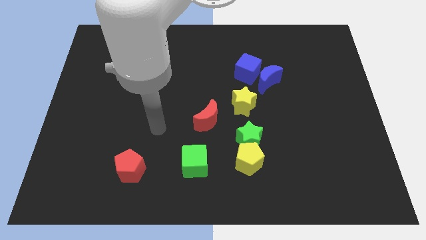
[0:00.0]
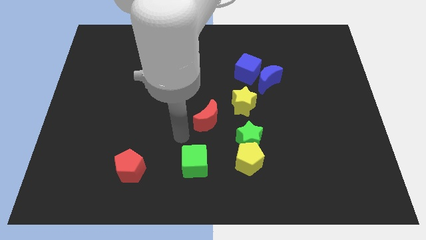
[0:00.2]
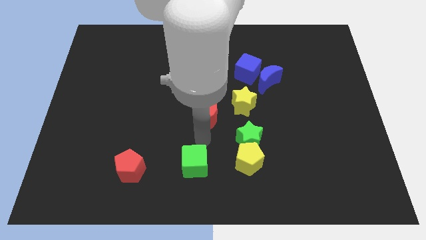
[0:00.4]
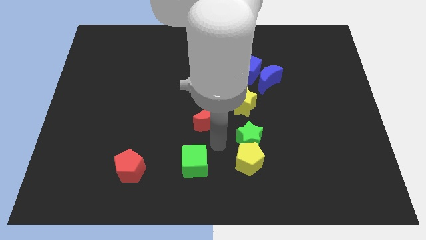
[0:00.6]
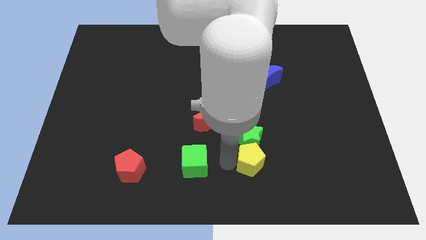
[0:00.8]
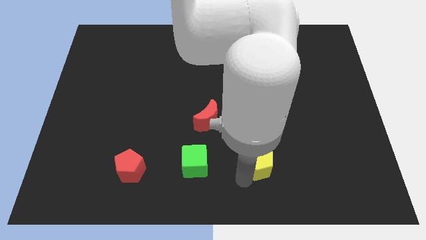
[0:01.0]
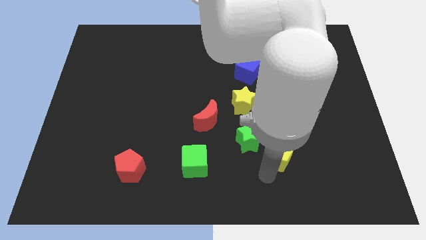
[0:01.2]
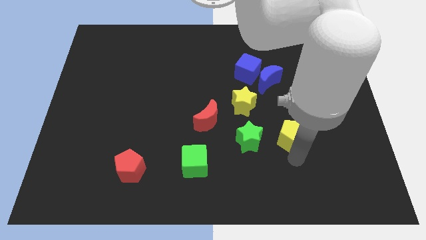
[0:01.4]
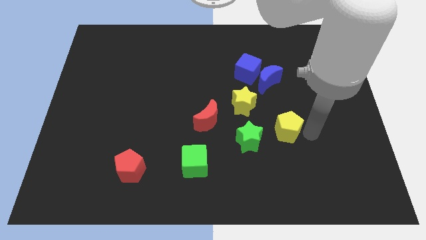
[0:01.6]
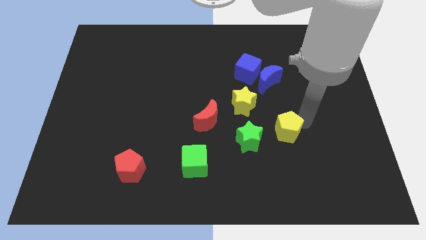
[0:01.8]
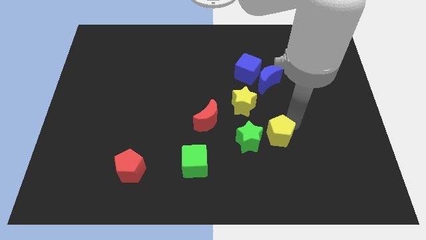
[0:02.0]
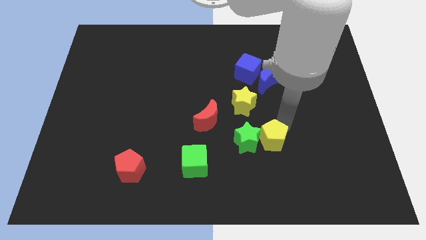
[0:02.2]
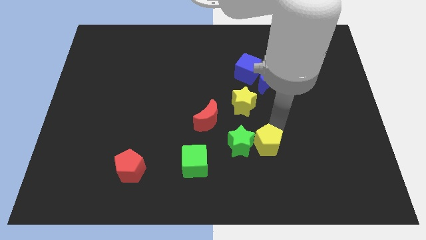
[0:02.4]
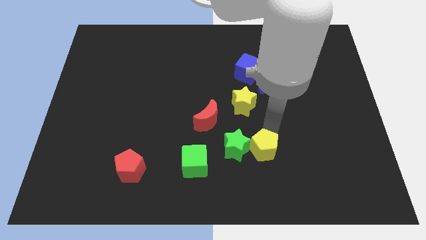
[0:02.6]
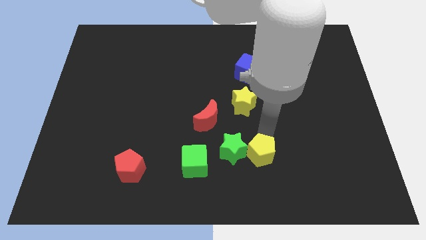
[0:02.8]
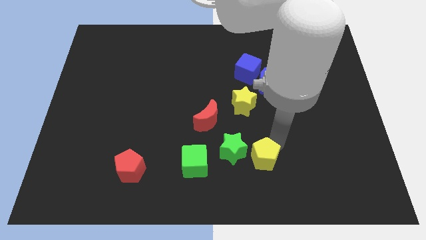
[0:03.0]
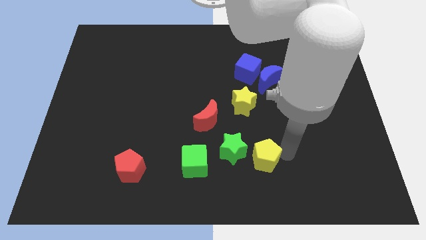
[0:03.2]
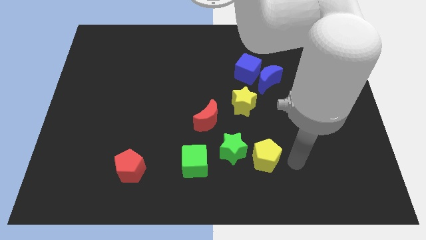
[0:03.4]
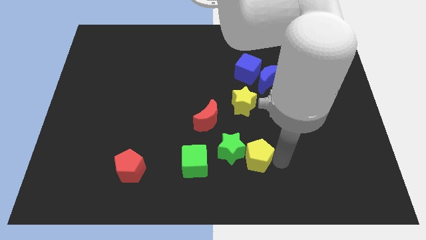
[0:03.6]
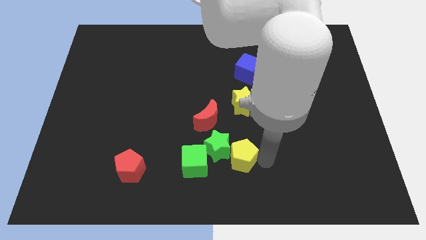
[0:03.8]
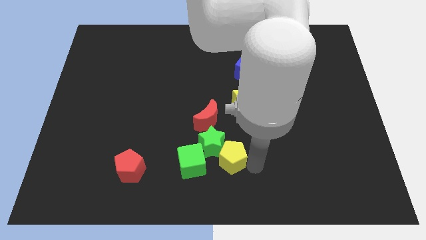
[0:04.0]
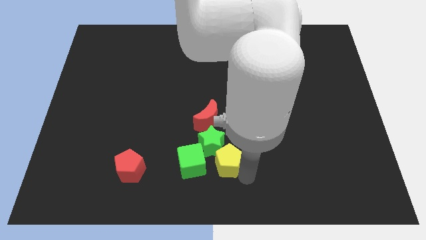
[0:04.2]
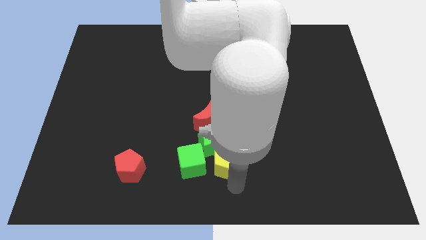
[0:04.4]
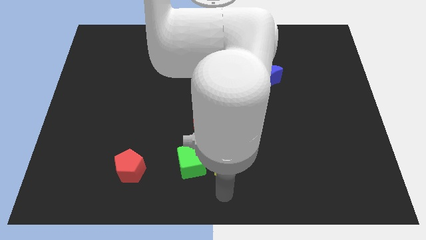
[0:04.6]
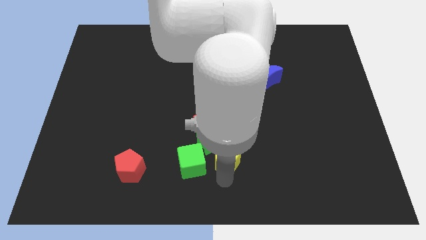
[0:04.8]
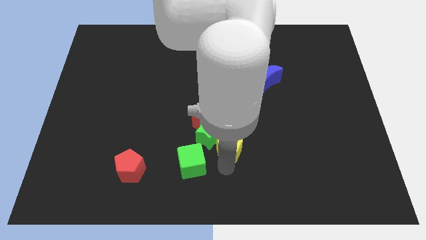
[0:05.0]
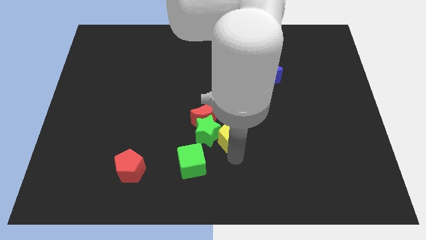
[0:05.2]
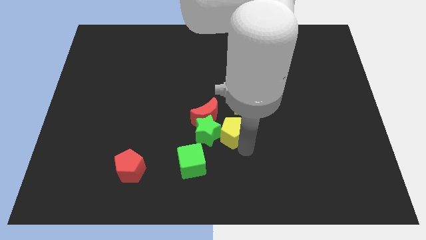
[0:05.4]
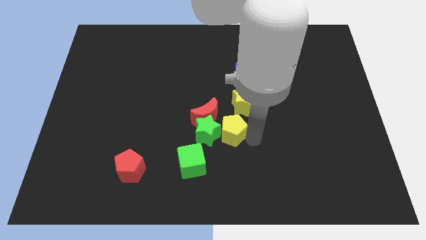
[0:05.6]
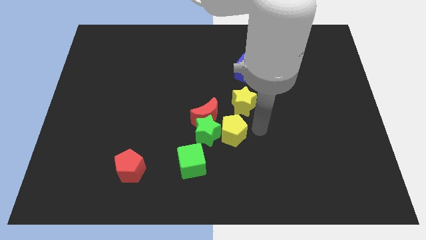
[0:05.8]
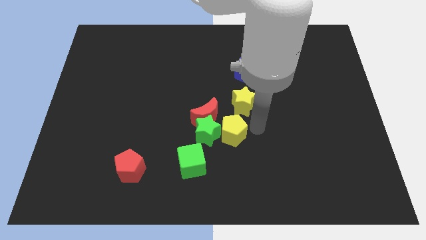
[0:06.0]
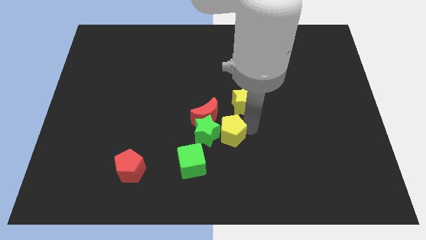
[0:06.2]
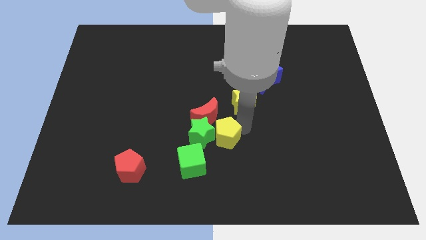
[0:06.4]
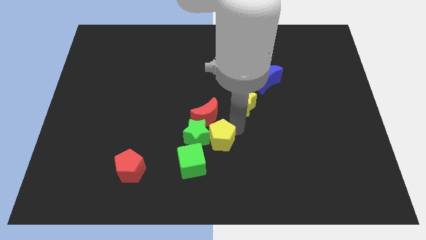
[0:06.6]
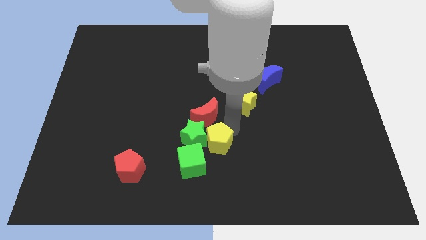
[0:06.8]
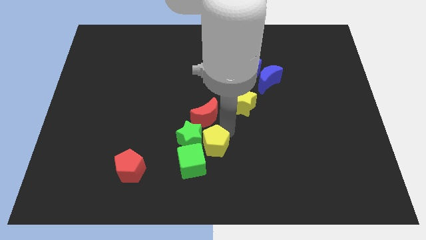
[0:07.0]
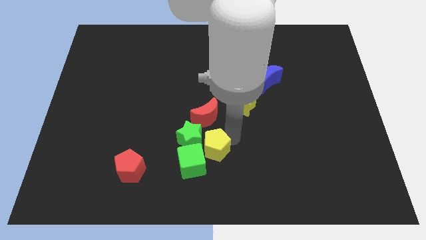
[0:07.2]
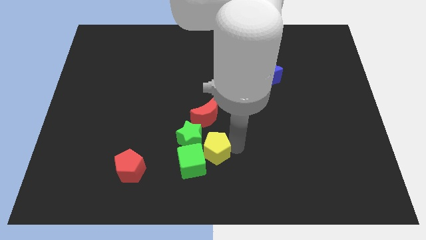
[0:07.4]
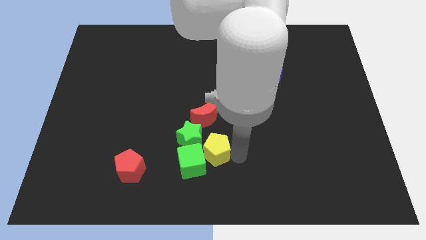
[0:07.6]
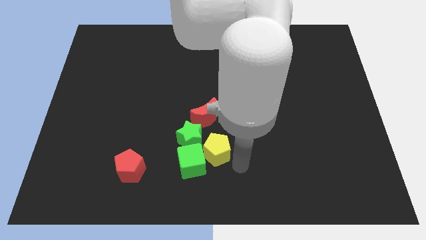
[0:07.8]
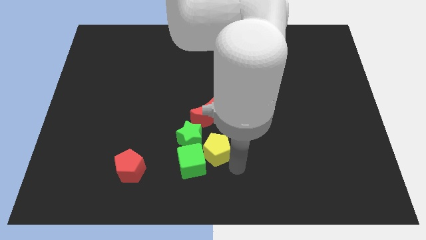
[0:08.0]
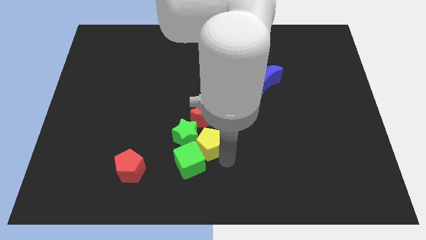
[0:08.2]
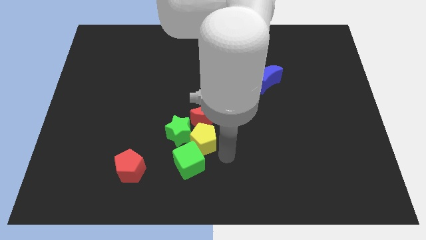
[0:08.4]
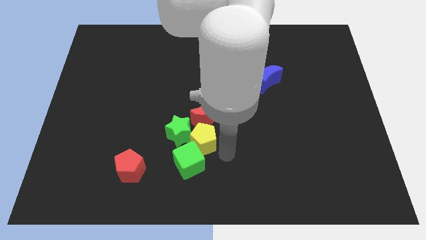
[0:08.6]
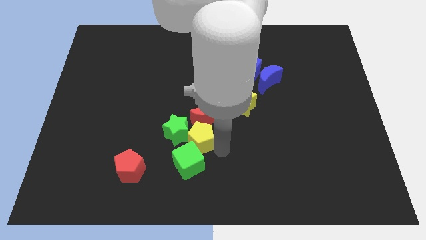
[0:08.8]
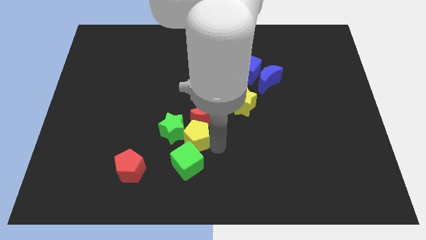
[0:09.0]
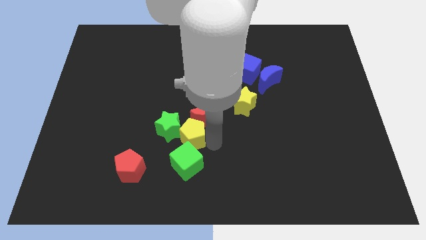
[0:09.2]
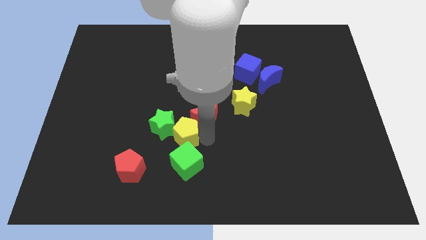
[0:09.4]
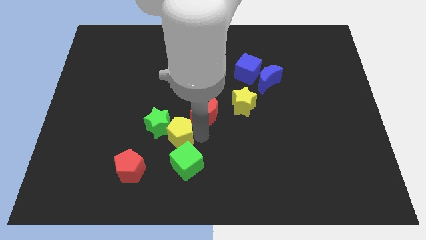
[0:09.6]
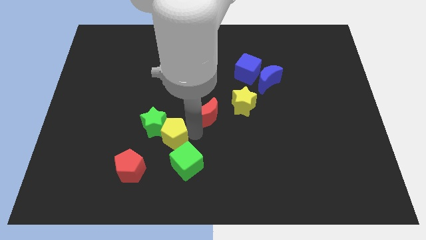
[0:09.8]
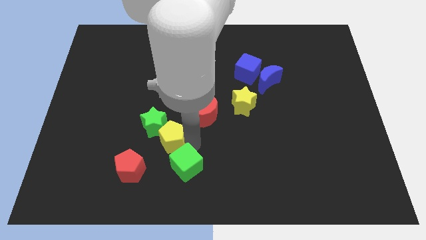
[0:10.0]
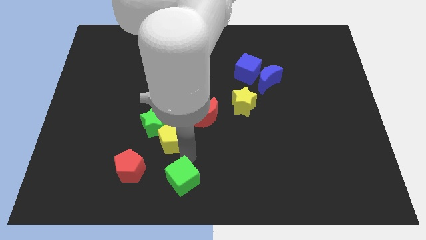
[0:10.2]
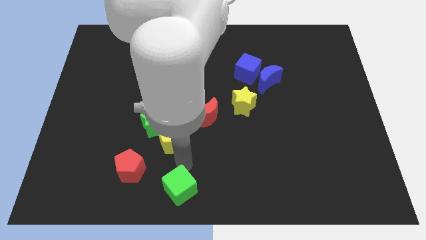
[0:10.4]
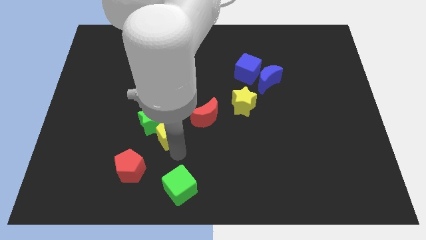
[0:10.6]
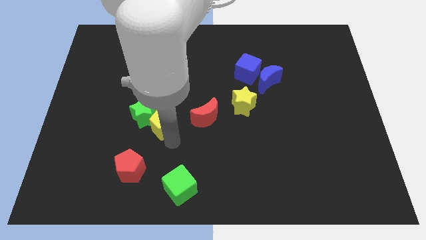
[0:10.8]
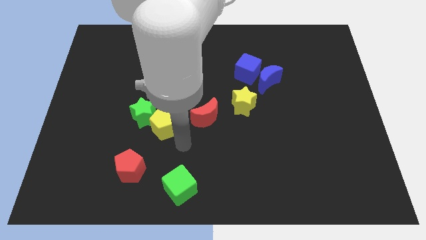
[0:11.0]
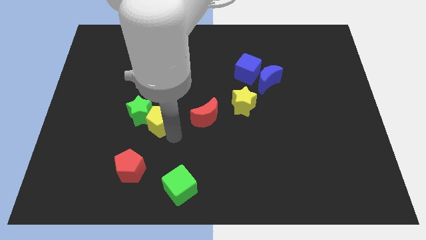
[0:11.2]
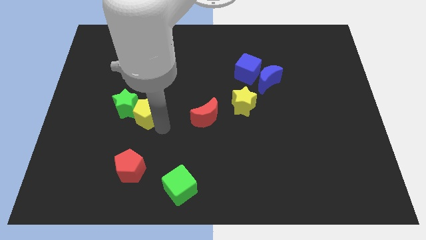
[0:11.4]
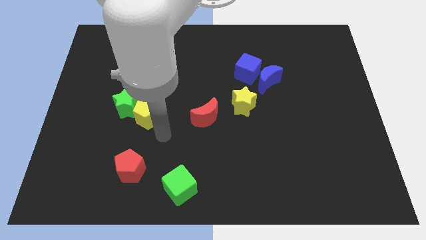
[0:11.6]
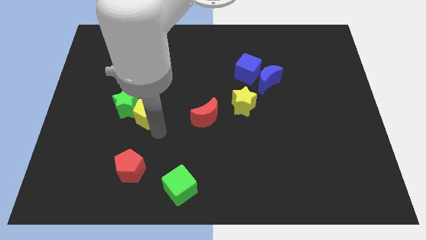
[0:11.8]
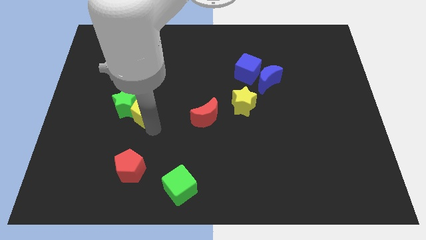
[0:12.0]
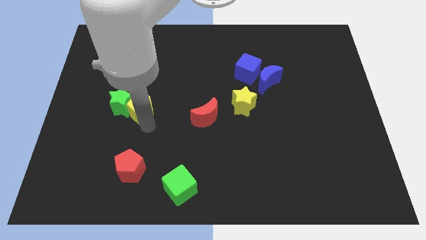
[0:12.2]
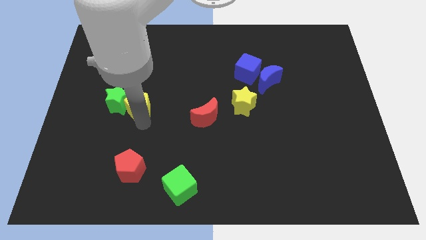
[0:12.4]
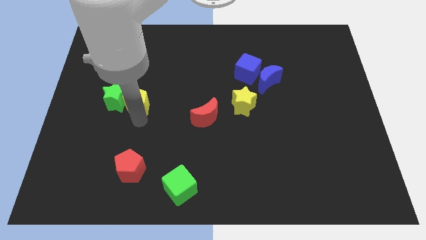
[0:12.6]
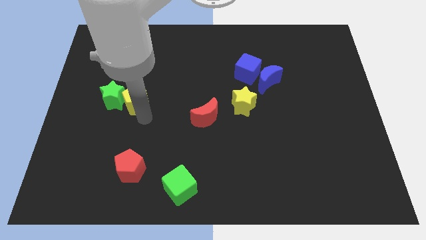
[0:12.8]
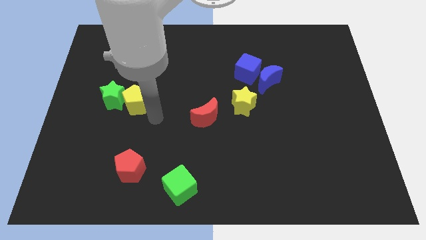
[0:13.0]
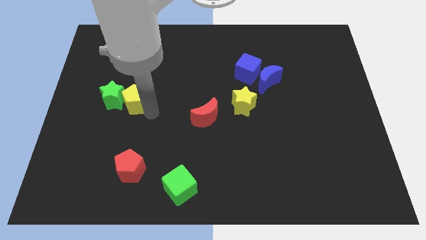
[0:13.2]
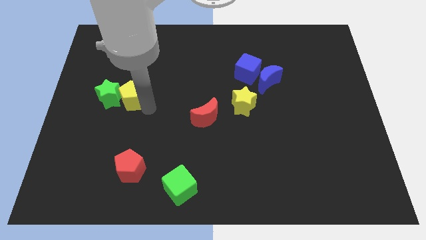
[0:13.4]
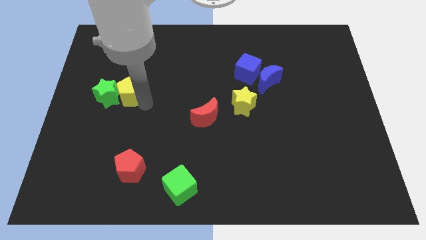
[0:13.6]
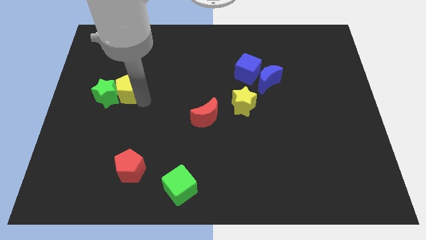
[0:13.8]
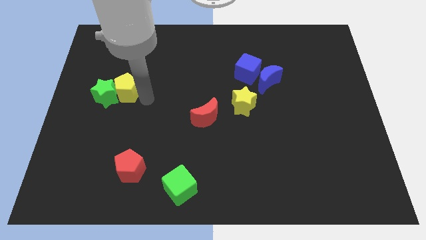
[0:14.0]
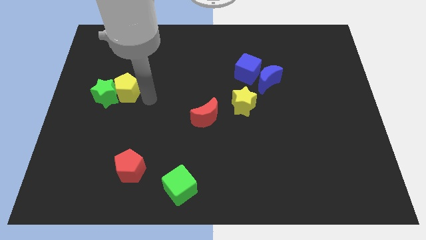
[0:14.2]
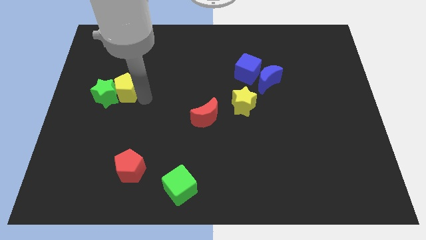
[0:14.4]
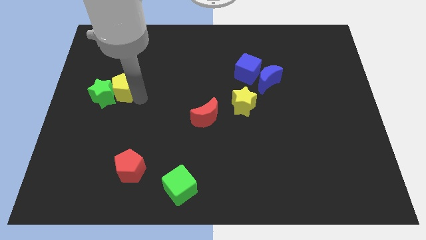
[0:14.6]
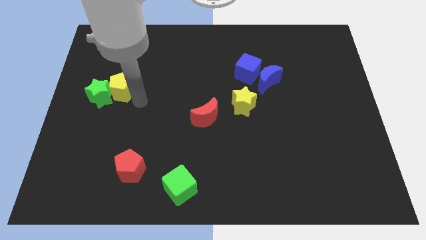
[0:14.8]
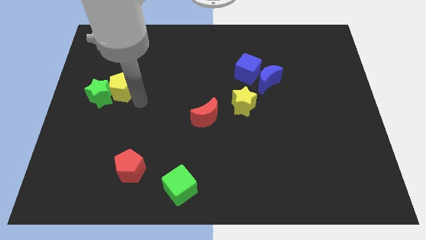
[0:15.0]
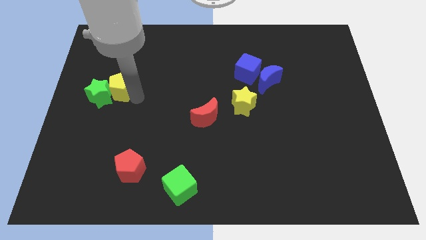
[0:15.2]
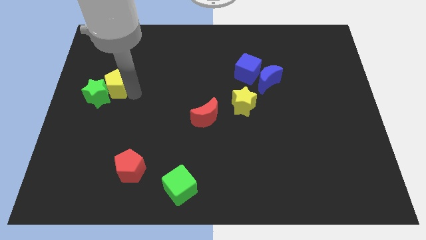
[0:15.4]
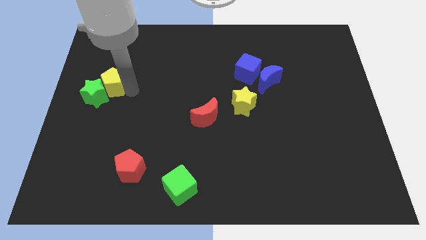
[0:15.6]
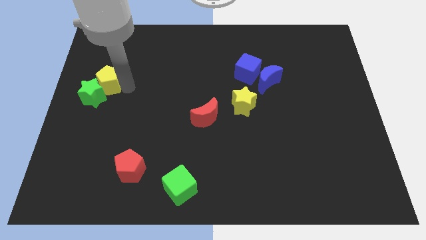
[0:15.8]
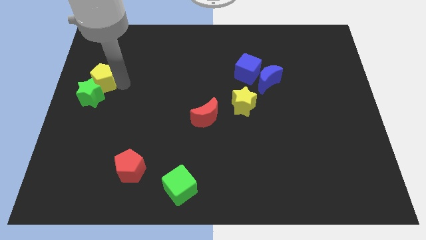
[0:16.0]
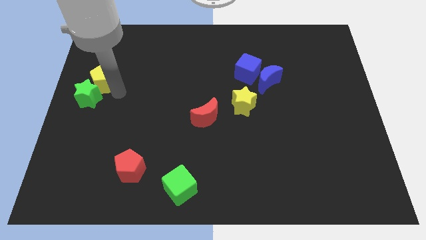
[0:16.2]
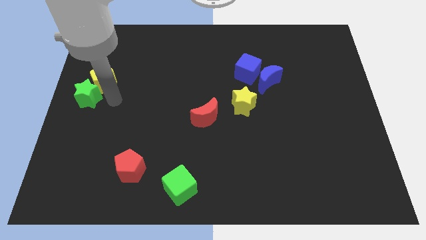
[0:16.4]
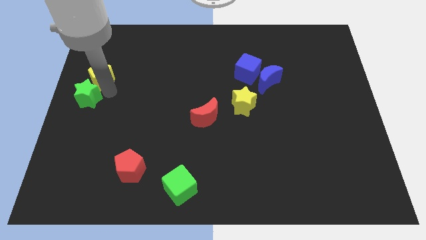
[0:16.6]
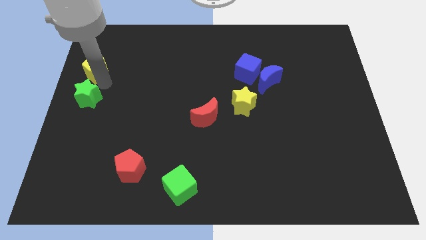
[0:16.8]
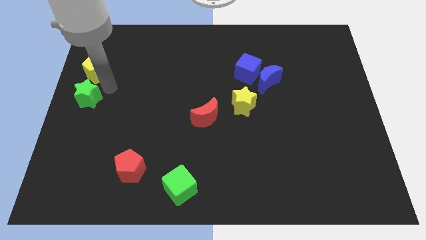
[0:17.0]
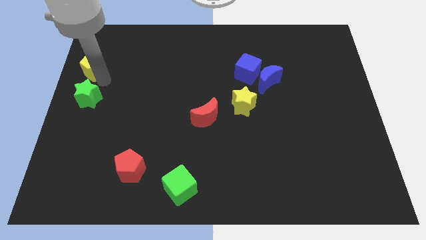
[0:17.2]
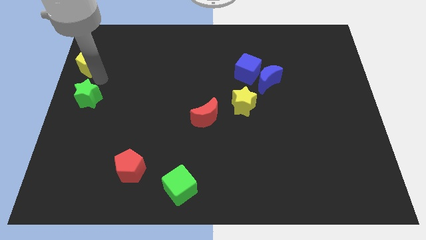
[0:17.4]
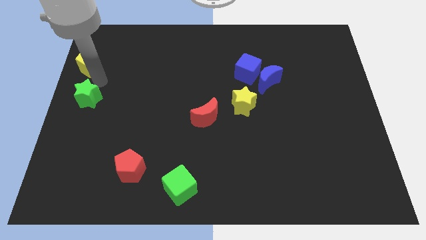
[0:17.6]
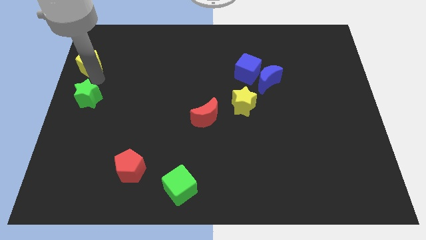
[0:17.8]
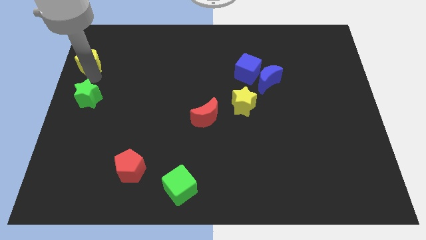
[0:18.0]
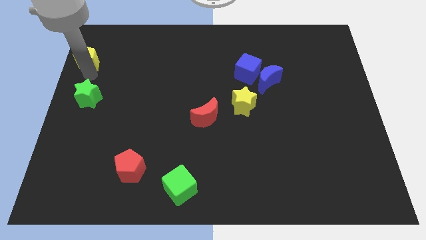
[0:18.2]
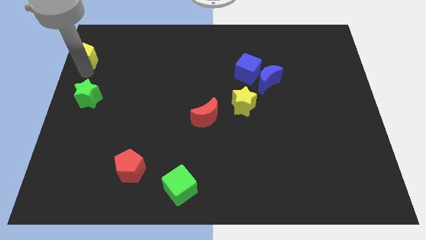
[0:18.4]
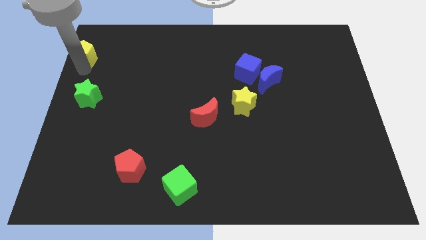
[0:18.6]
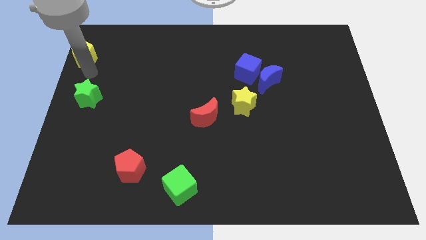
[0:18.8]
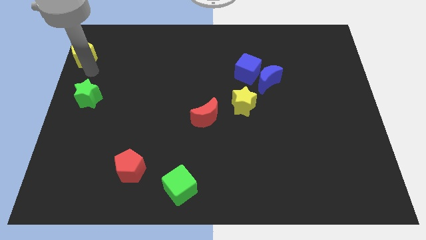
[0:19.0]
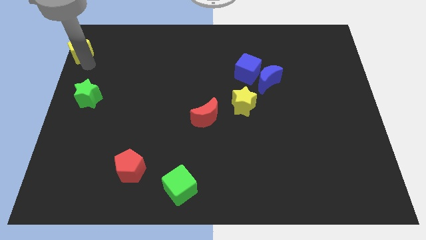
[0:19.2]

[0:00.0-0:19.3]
move the yellow pentagon to the upper left corner
